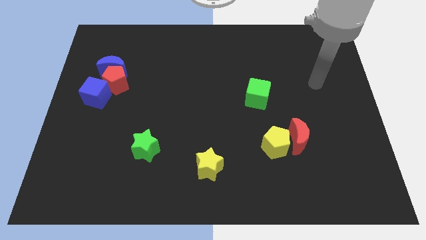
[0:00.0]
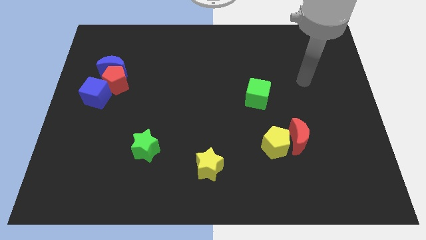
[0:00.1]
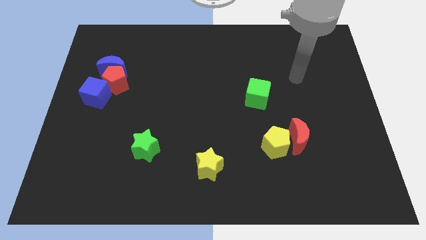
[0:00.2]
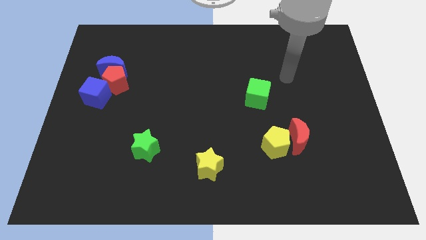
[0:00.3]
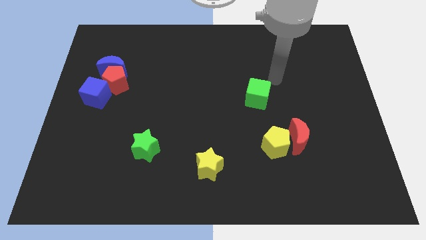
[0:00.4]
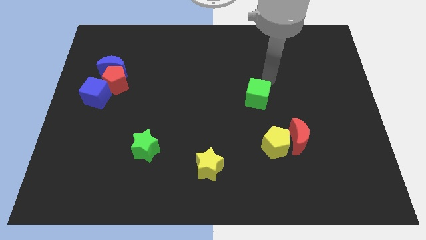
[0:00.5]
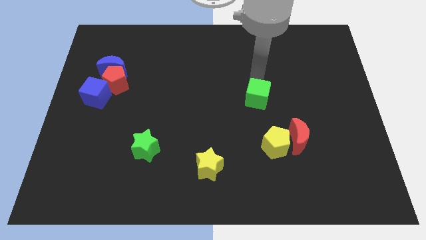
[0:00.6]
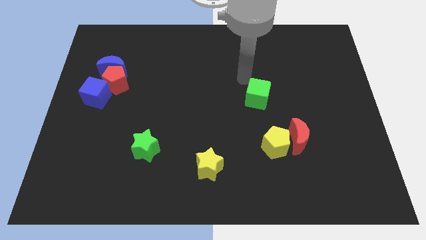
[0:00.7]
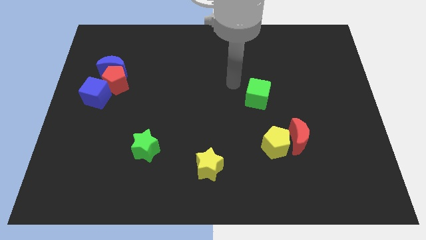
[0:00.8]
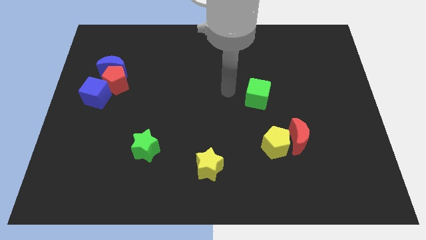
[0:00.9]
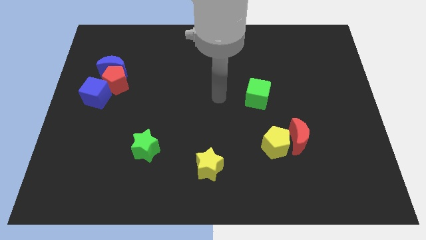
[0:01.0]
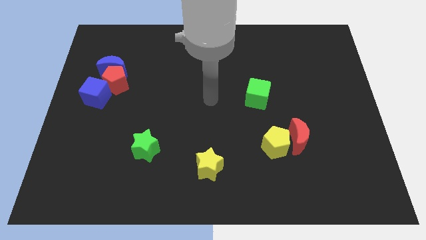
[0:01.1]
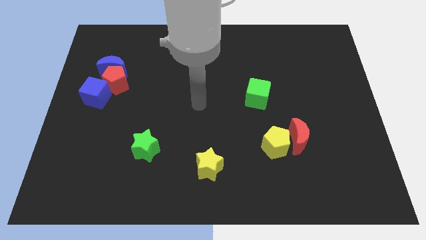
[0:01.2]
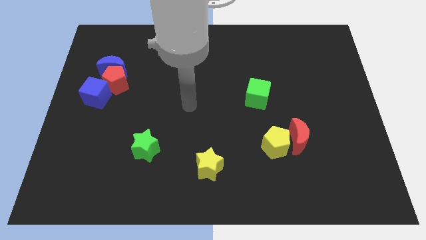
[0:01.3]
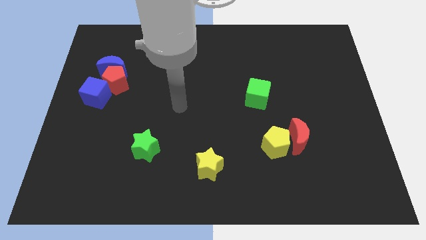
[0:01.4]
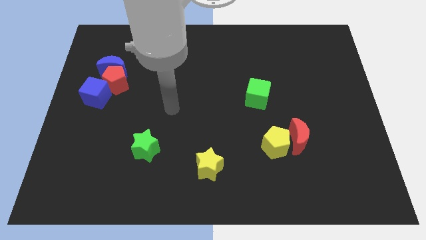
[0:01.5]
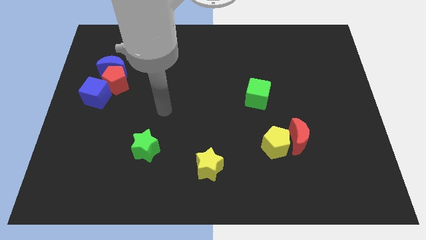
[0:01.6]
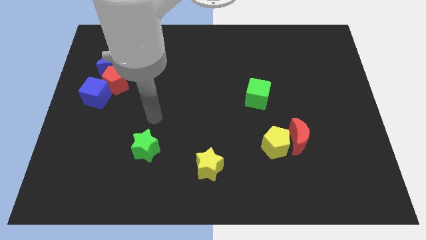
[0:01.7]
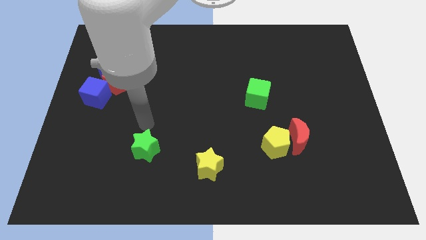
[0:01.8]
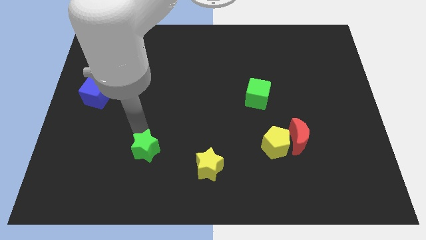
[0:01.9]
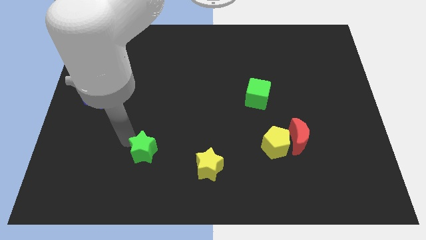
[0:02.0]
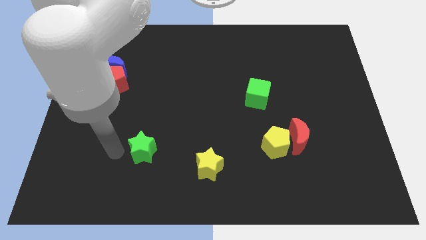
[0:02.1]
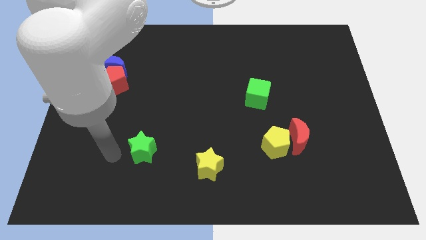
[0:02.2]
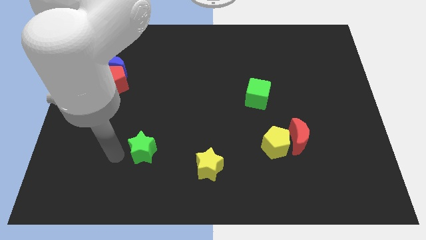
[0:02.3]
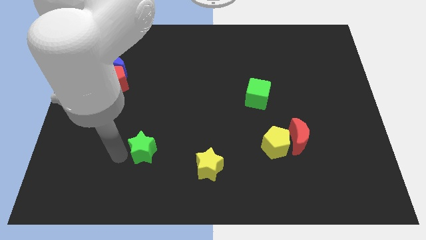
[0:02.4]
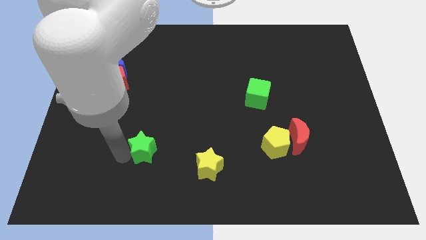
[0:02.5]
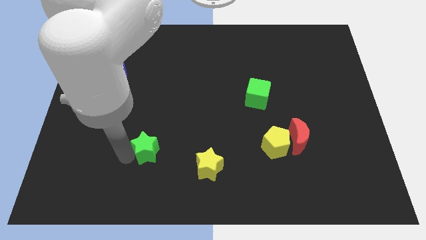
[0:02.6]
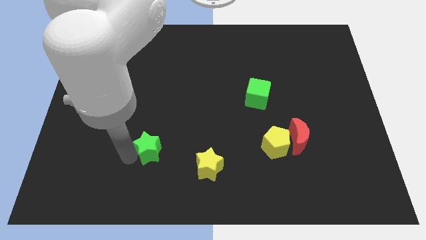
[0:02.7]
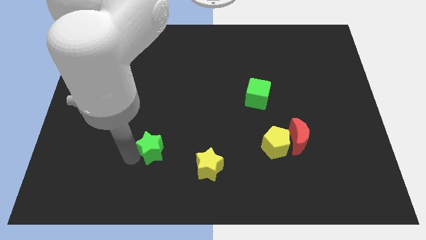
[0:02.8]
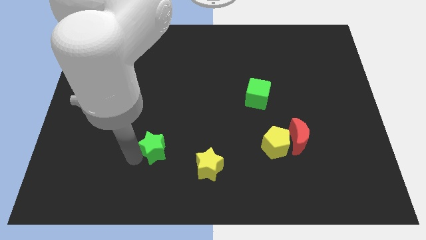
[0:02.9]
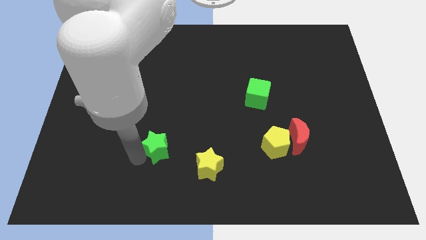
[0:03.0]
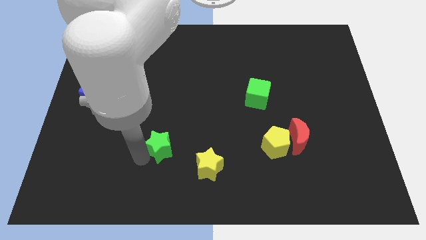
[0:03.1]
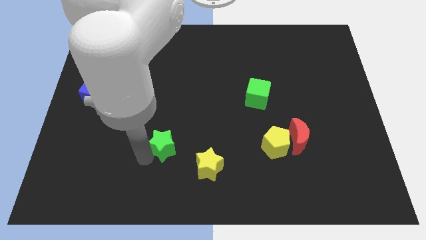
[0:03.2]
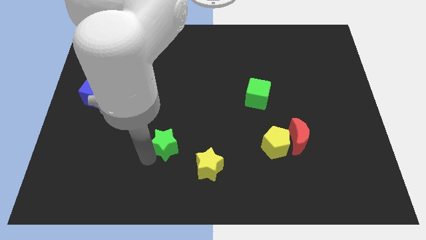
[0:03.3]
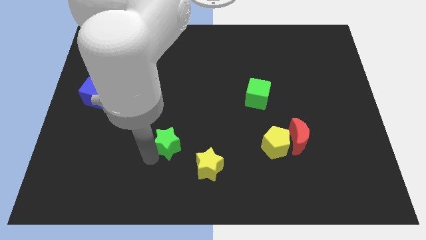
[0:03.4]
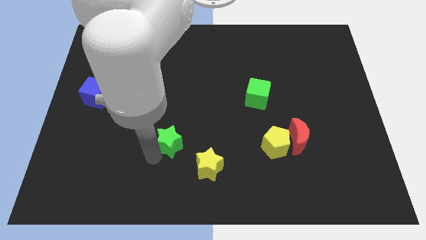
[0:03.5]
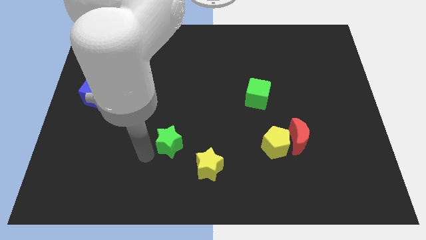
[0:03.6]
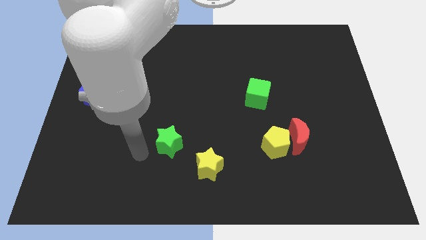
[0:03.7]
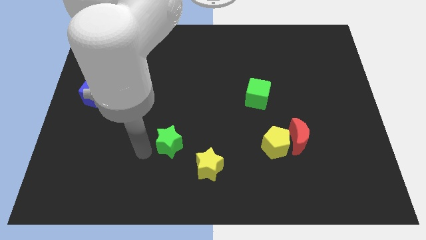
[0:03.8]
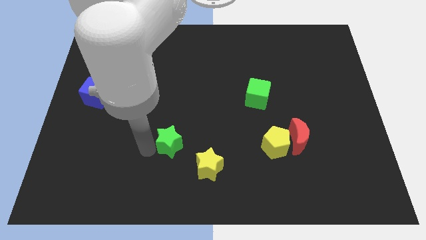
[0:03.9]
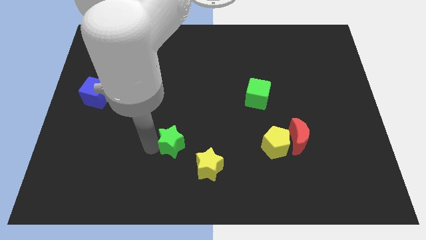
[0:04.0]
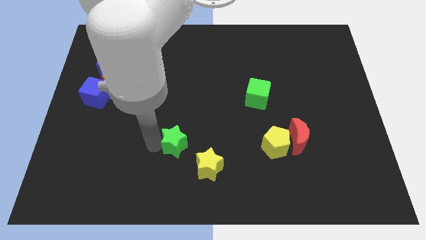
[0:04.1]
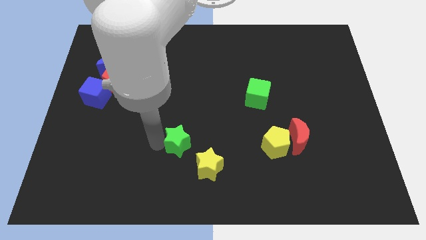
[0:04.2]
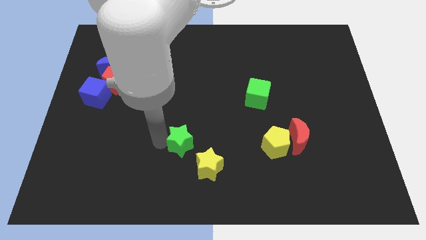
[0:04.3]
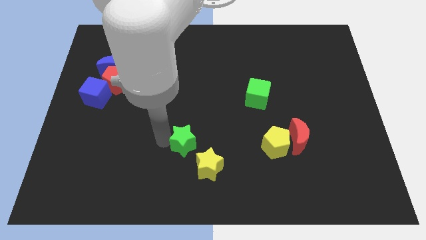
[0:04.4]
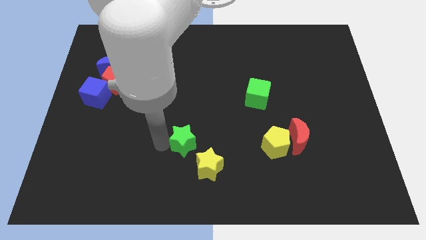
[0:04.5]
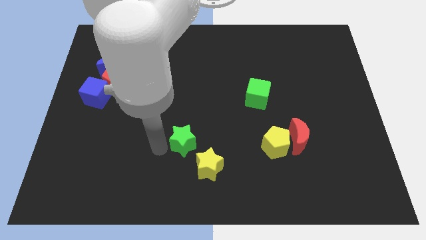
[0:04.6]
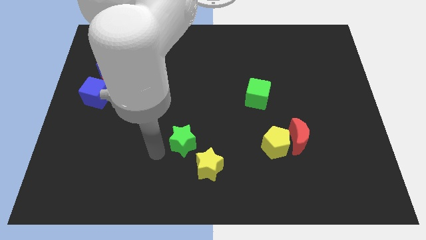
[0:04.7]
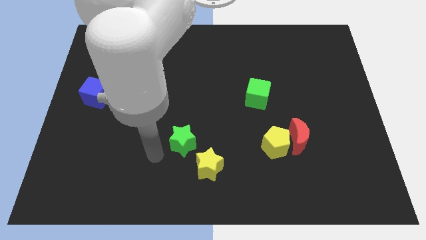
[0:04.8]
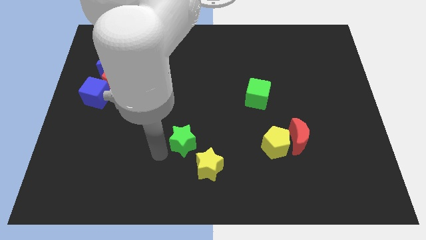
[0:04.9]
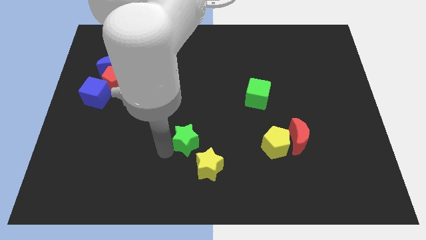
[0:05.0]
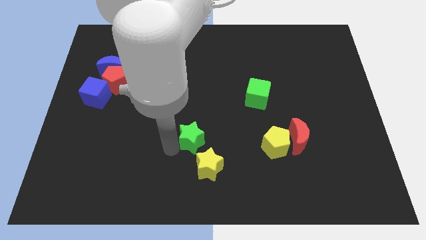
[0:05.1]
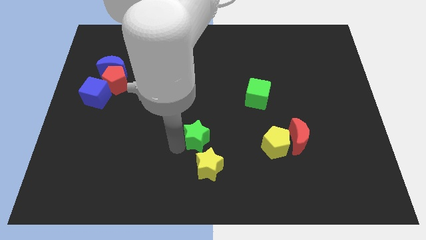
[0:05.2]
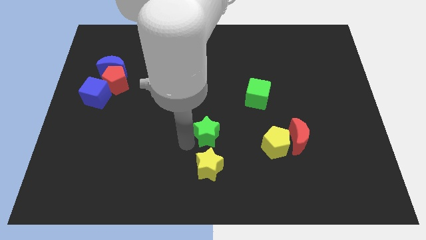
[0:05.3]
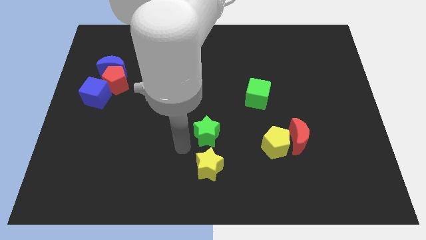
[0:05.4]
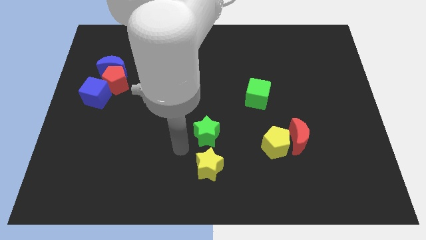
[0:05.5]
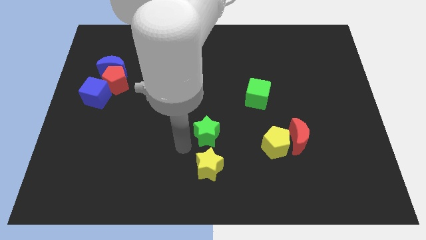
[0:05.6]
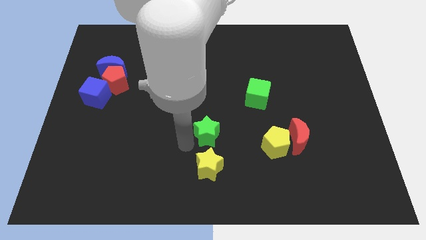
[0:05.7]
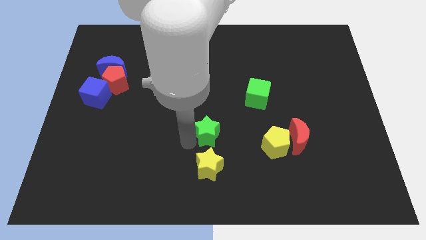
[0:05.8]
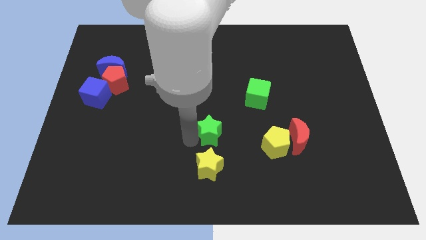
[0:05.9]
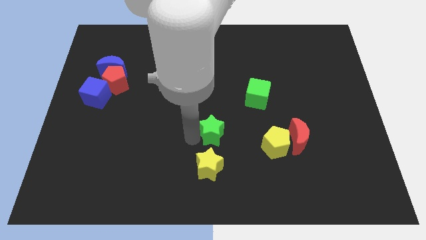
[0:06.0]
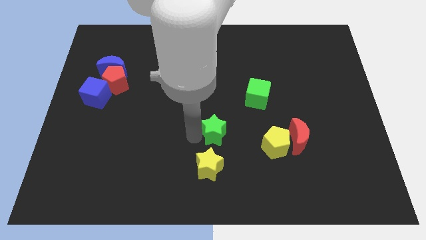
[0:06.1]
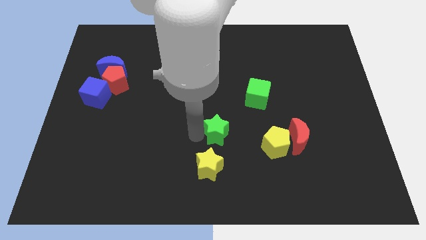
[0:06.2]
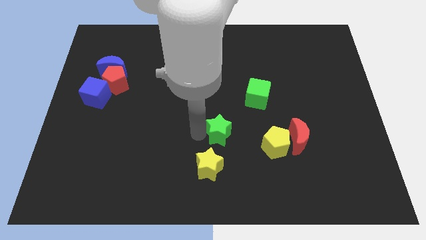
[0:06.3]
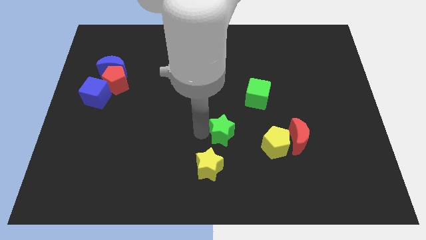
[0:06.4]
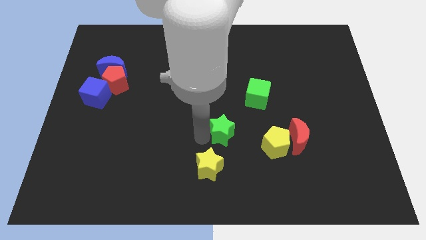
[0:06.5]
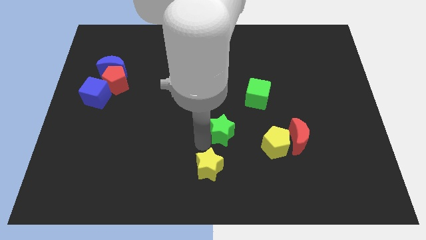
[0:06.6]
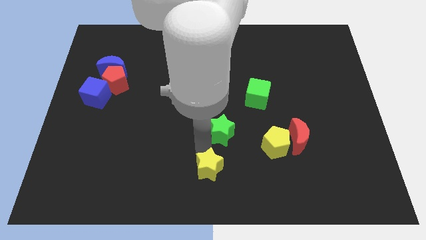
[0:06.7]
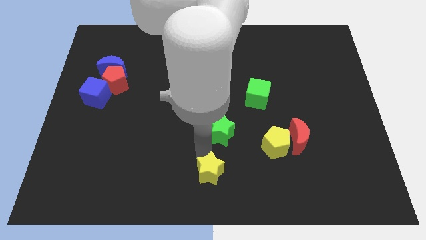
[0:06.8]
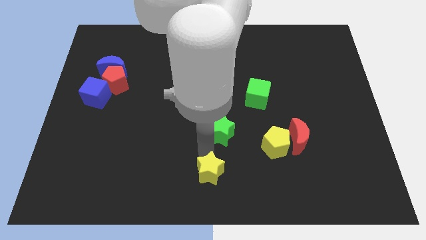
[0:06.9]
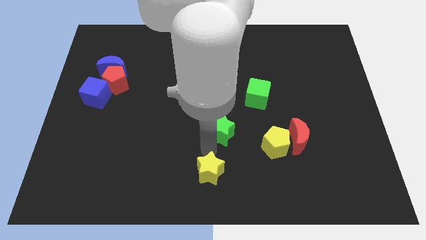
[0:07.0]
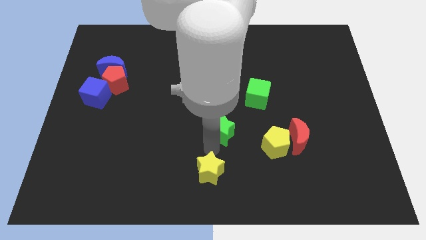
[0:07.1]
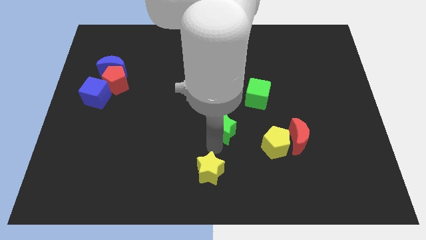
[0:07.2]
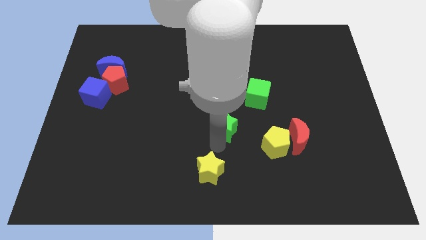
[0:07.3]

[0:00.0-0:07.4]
slide the green star to the bottom left side of the green cube

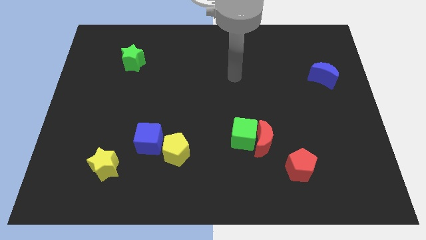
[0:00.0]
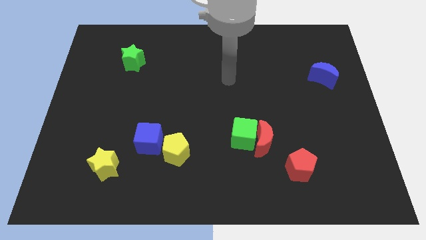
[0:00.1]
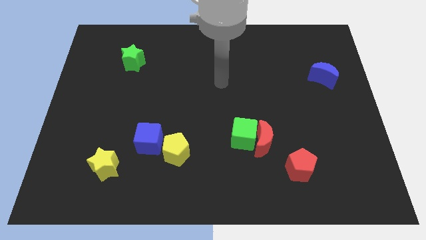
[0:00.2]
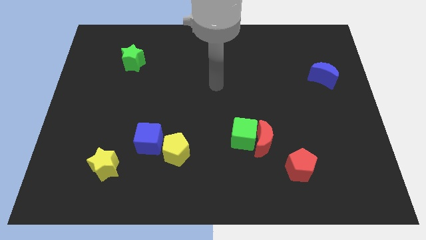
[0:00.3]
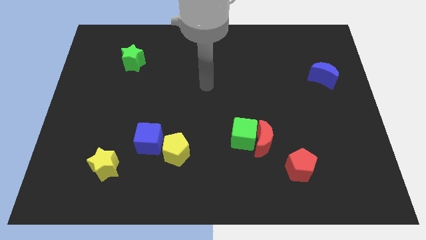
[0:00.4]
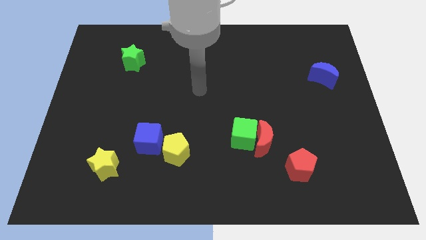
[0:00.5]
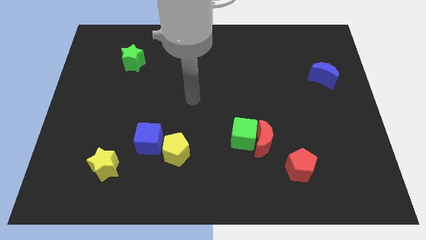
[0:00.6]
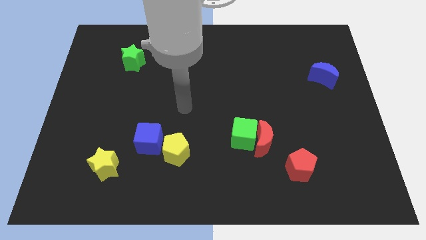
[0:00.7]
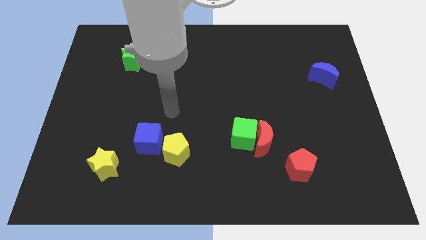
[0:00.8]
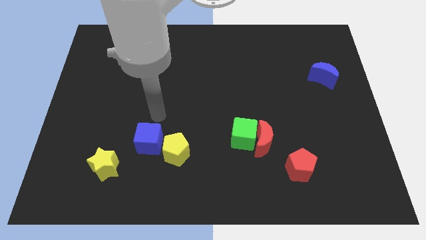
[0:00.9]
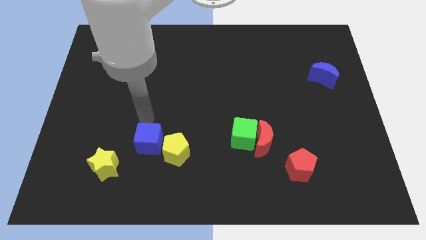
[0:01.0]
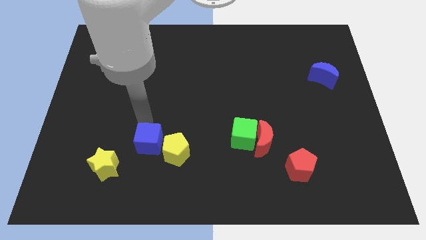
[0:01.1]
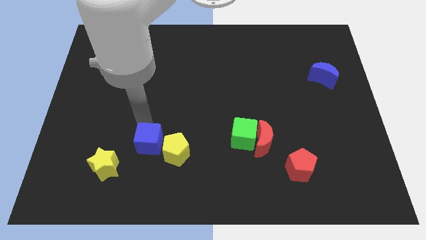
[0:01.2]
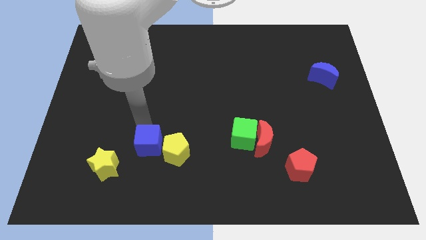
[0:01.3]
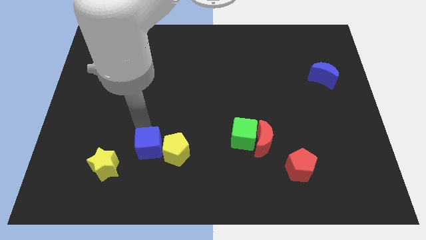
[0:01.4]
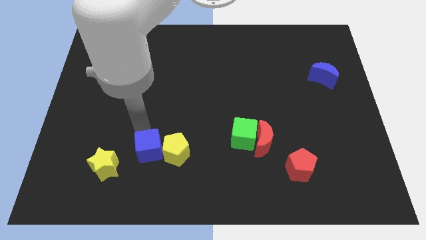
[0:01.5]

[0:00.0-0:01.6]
move the blue cube just right of the yellow star
